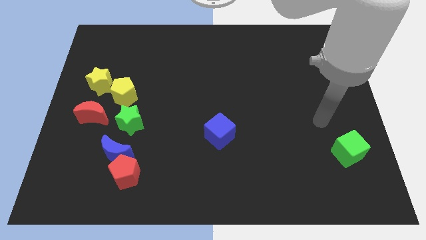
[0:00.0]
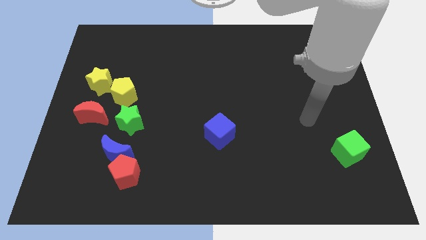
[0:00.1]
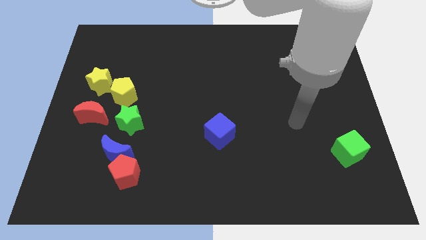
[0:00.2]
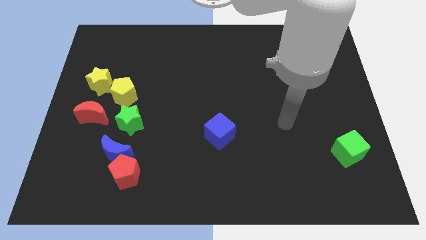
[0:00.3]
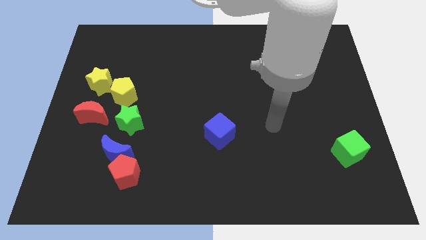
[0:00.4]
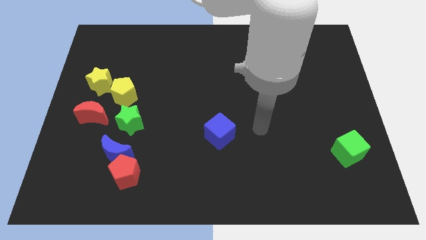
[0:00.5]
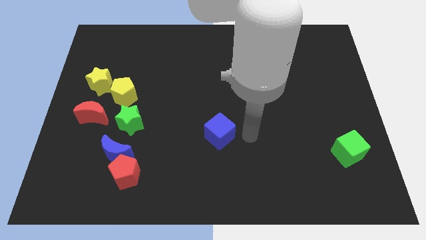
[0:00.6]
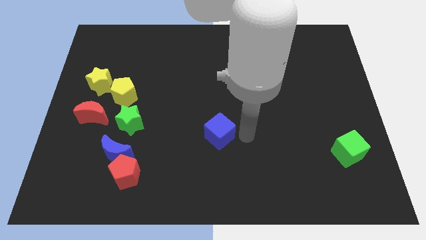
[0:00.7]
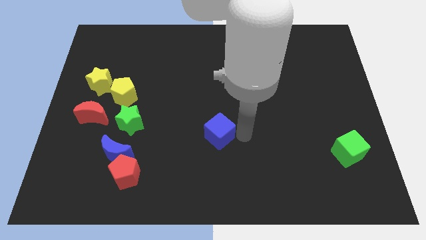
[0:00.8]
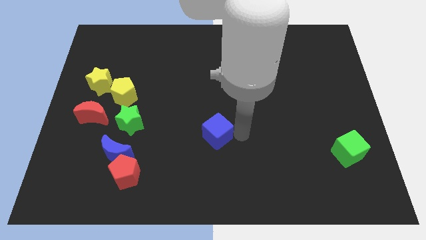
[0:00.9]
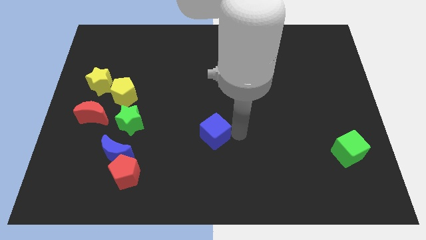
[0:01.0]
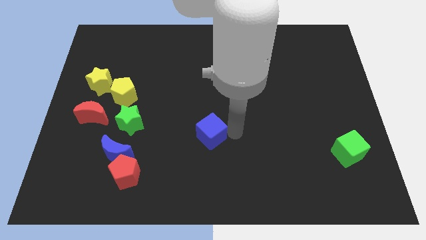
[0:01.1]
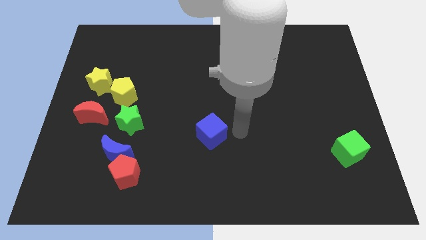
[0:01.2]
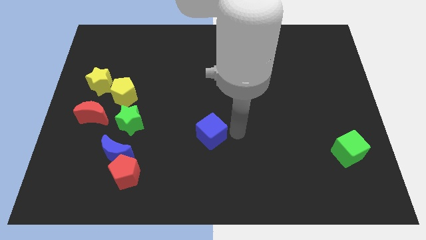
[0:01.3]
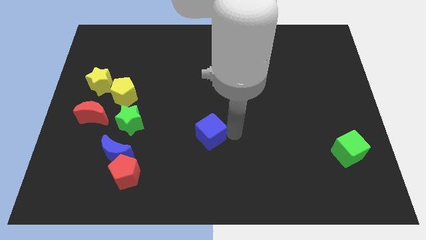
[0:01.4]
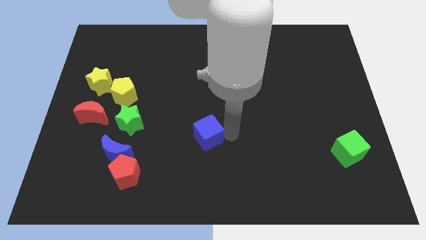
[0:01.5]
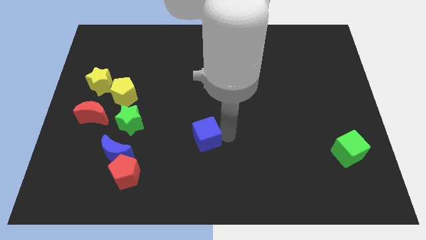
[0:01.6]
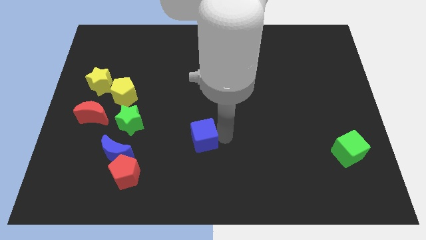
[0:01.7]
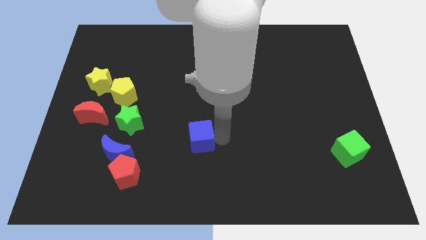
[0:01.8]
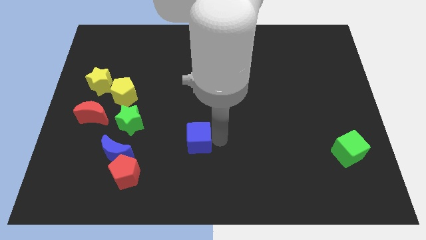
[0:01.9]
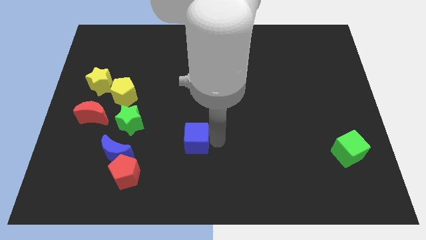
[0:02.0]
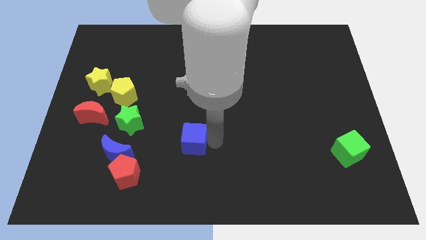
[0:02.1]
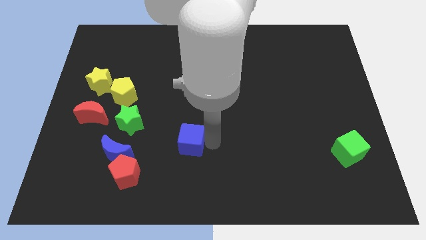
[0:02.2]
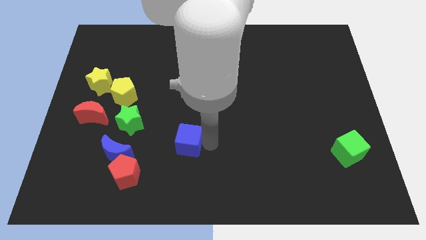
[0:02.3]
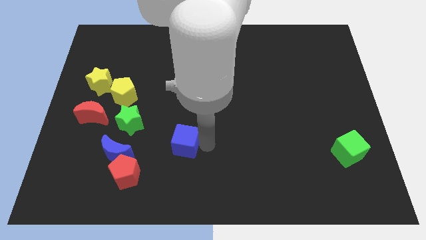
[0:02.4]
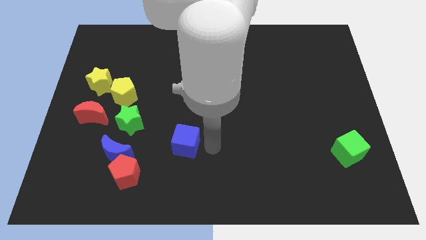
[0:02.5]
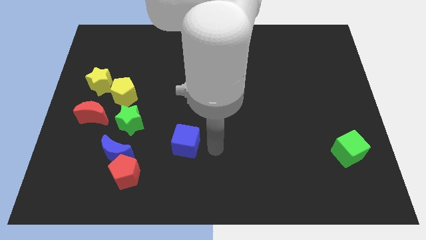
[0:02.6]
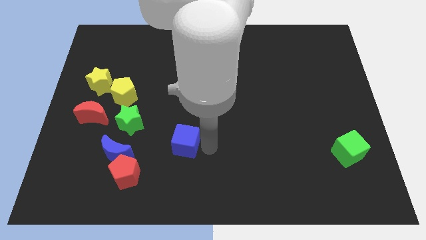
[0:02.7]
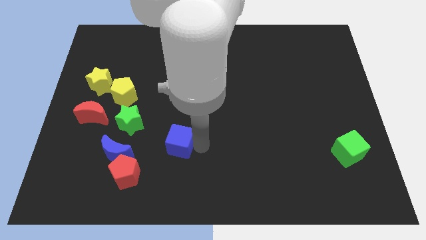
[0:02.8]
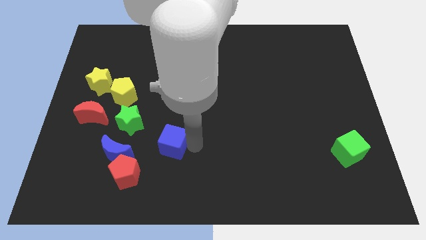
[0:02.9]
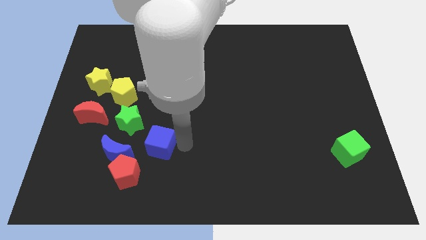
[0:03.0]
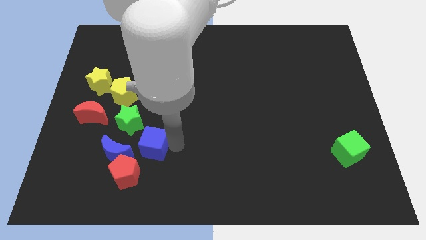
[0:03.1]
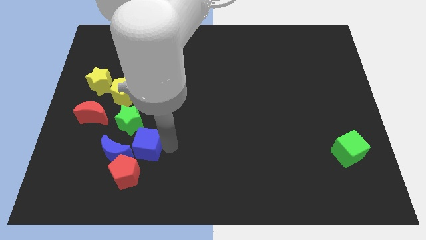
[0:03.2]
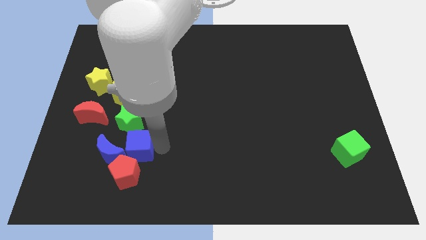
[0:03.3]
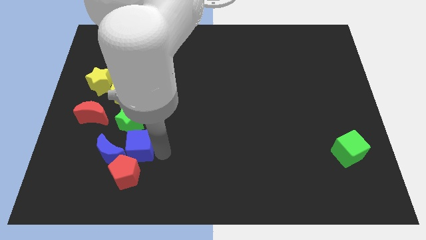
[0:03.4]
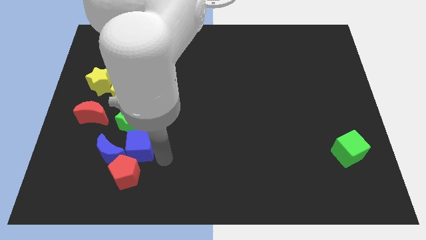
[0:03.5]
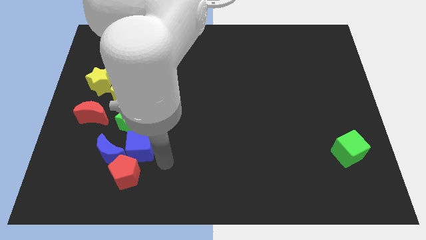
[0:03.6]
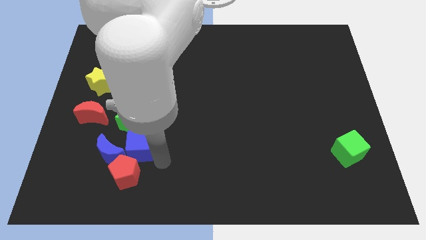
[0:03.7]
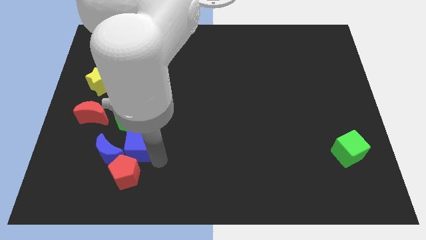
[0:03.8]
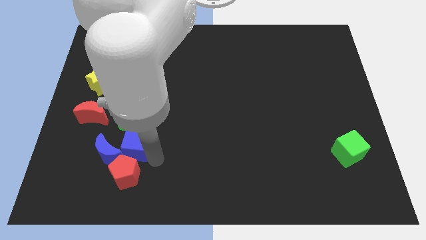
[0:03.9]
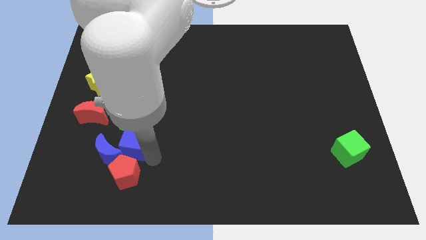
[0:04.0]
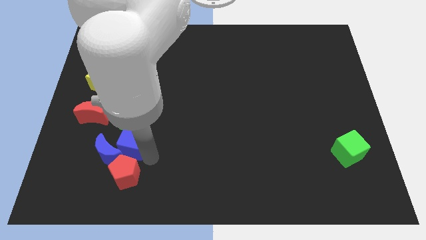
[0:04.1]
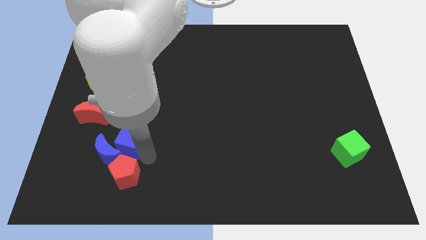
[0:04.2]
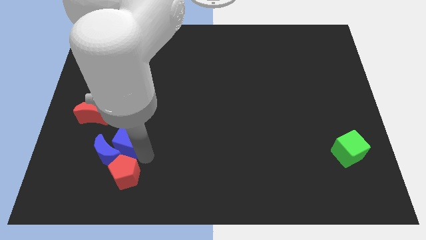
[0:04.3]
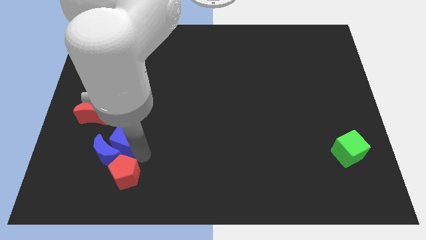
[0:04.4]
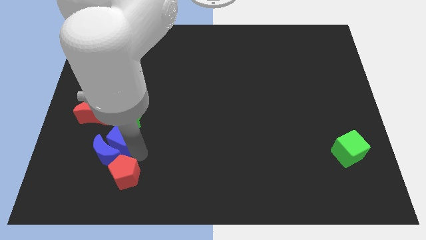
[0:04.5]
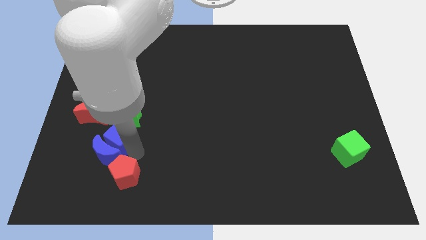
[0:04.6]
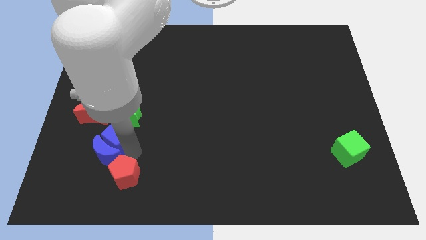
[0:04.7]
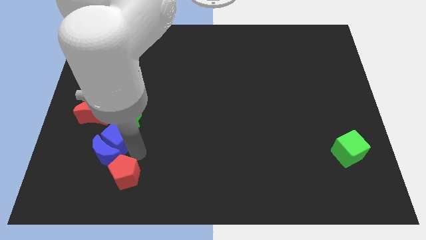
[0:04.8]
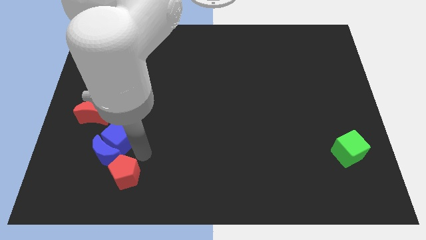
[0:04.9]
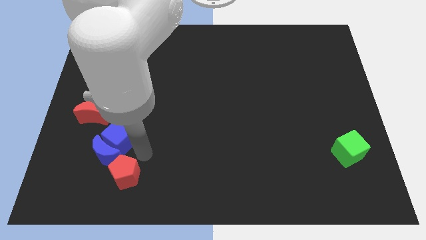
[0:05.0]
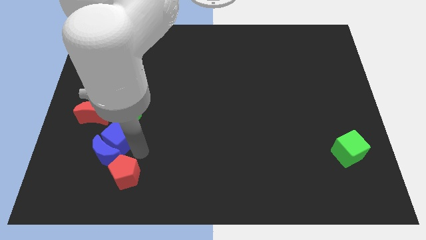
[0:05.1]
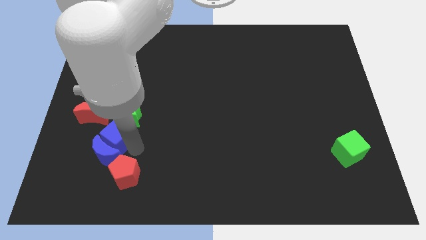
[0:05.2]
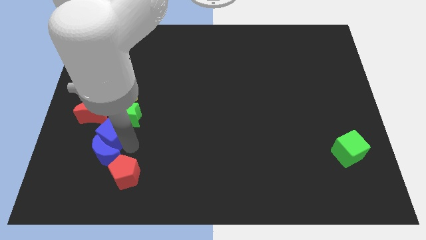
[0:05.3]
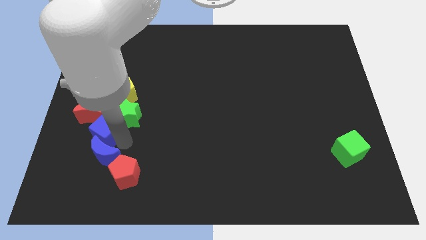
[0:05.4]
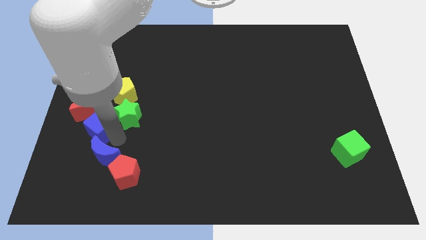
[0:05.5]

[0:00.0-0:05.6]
move the blue cube to the bottom side of the yellow star

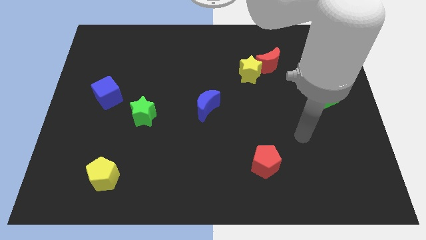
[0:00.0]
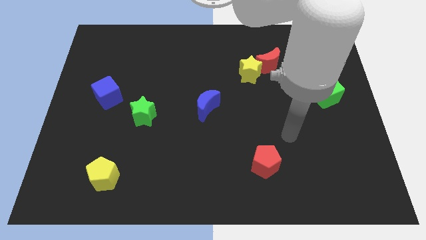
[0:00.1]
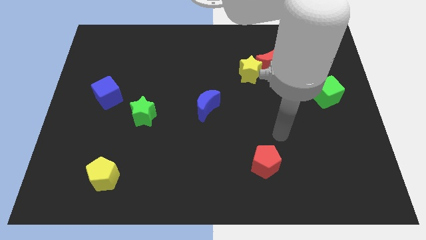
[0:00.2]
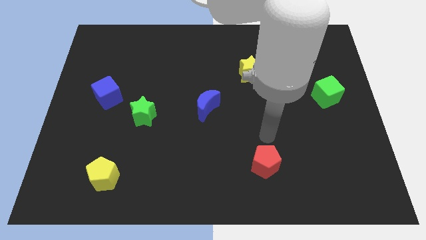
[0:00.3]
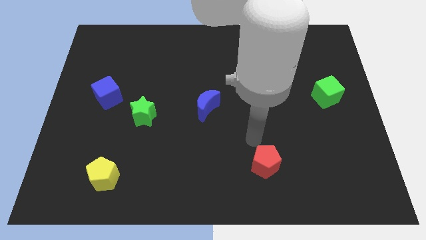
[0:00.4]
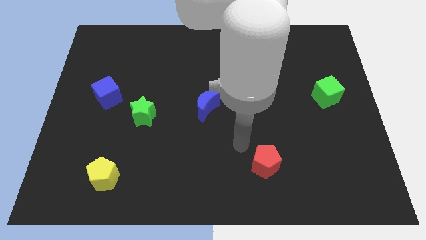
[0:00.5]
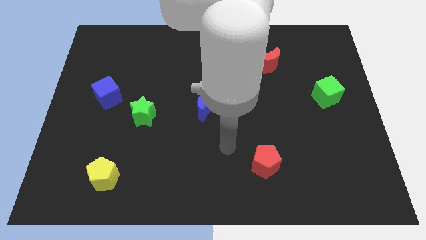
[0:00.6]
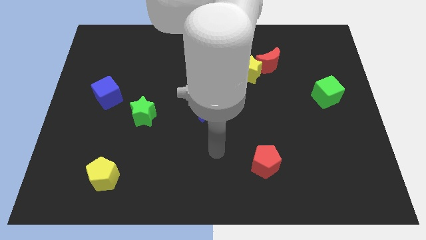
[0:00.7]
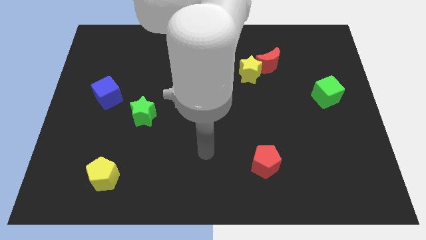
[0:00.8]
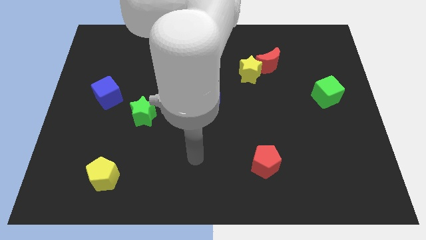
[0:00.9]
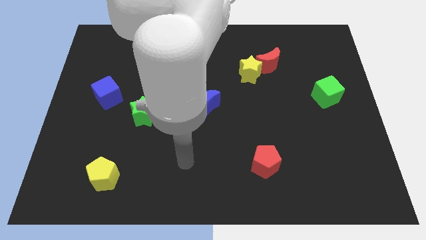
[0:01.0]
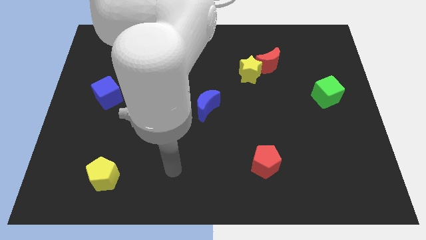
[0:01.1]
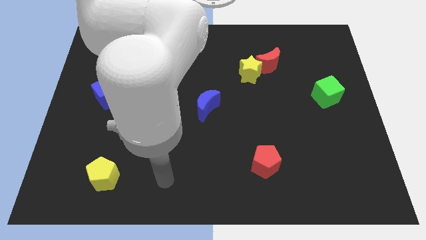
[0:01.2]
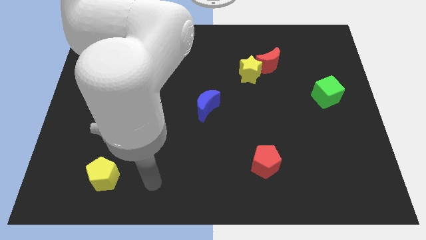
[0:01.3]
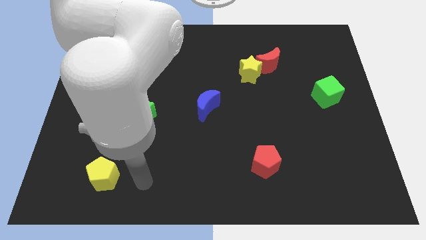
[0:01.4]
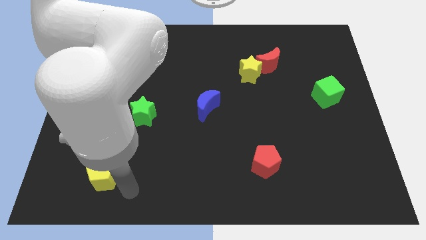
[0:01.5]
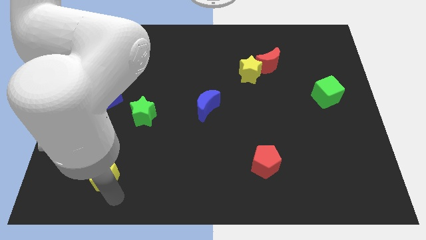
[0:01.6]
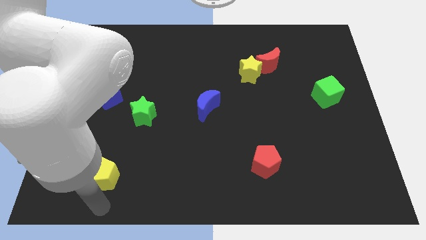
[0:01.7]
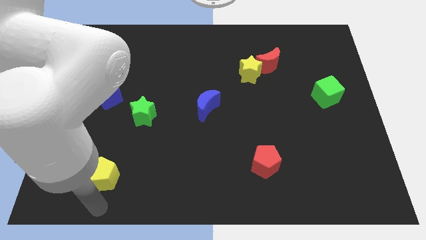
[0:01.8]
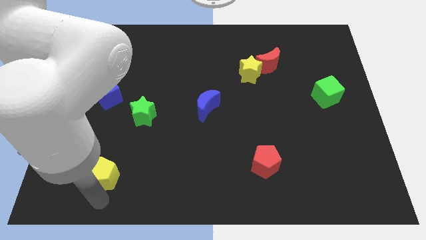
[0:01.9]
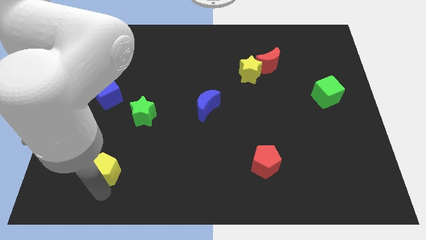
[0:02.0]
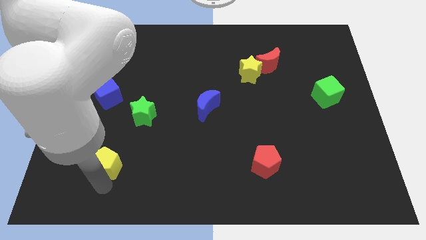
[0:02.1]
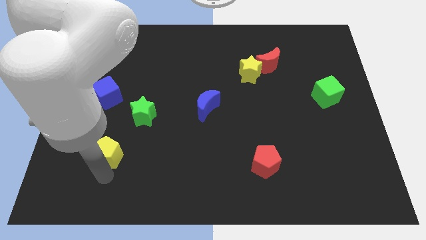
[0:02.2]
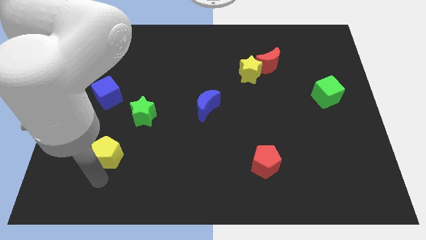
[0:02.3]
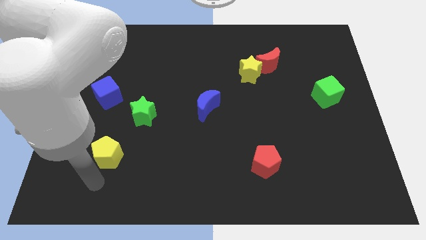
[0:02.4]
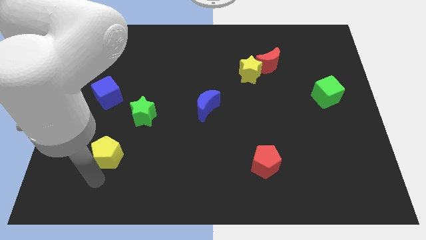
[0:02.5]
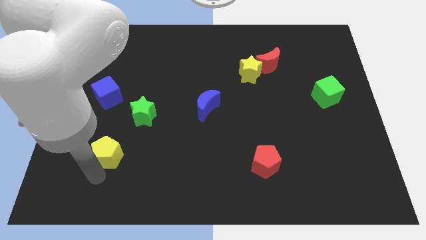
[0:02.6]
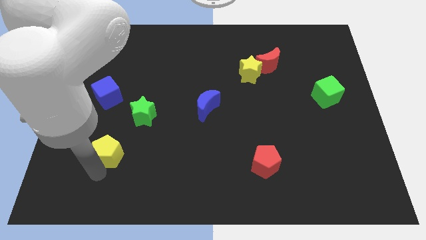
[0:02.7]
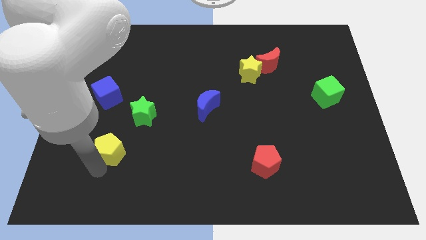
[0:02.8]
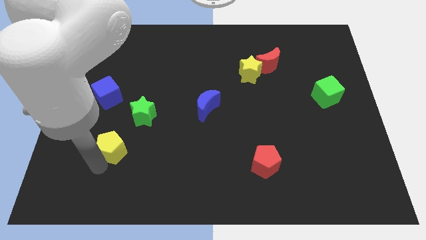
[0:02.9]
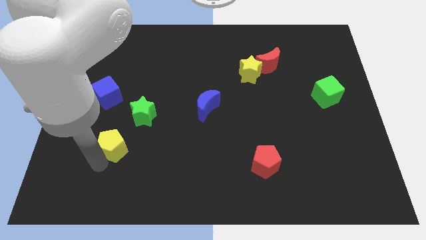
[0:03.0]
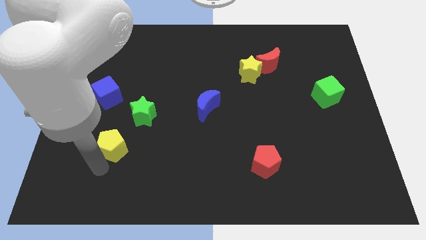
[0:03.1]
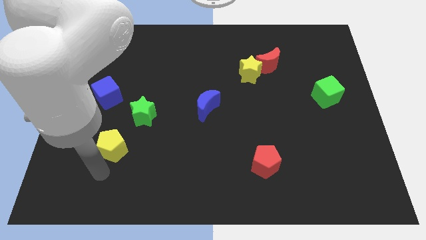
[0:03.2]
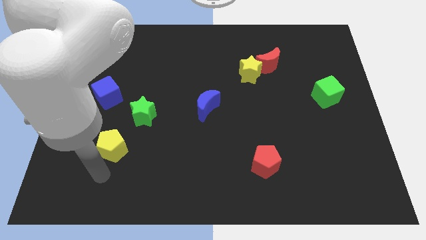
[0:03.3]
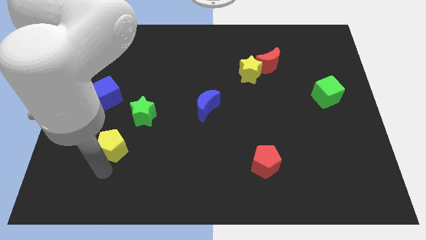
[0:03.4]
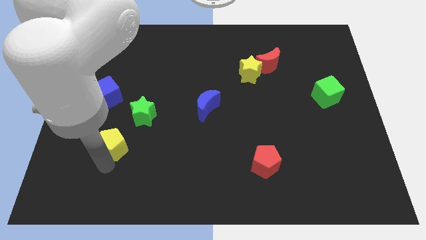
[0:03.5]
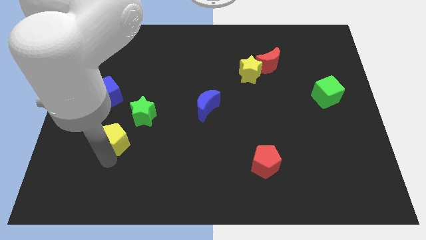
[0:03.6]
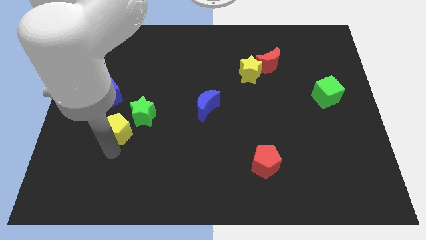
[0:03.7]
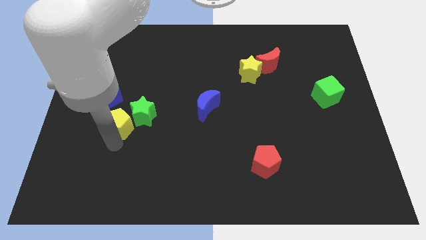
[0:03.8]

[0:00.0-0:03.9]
slide the yellow pentagon to the bottom right side of the blue cube
